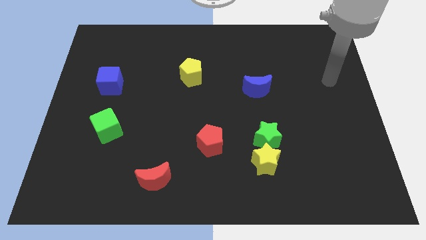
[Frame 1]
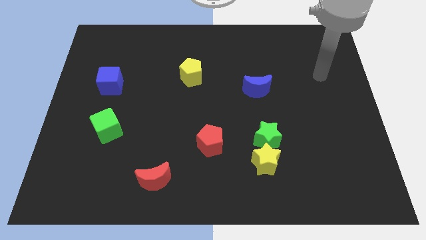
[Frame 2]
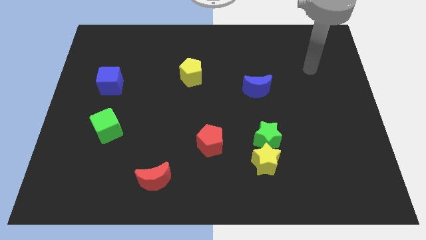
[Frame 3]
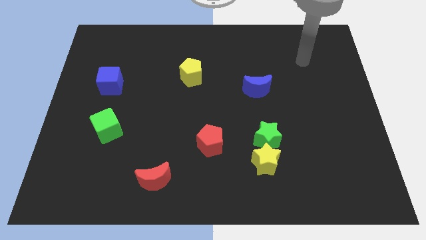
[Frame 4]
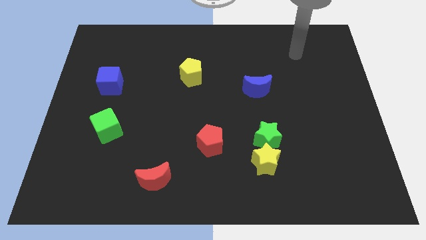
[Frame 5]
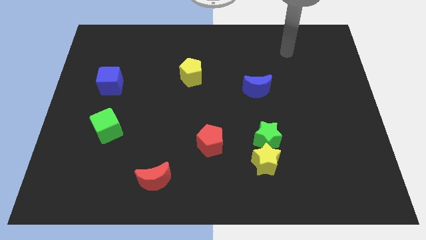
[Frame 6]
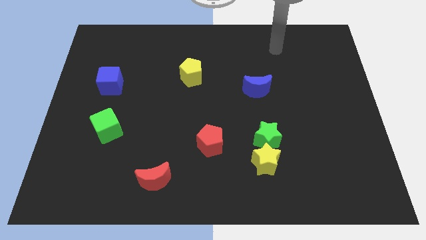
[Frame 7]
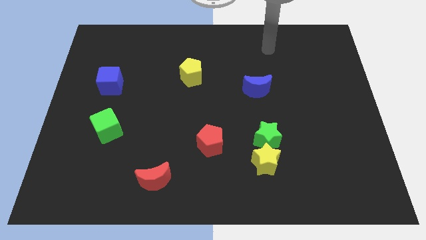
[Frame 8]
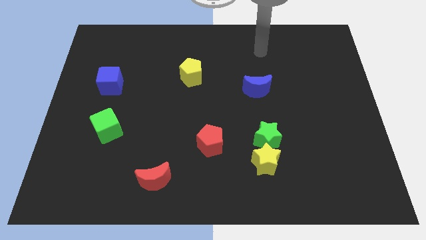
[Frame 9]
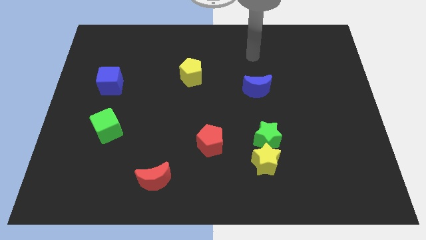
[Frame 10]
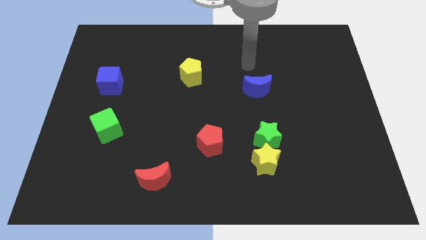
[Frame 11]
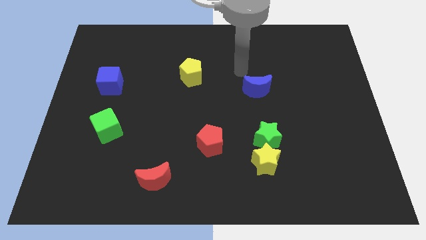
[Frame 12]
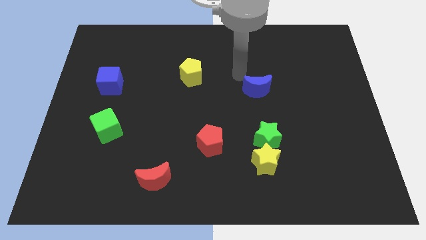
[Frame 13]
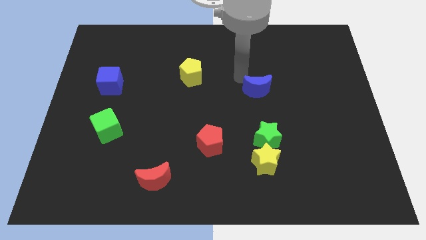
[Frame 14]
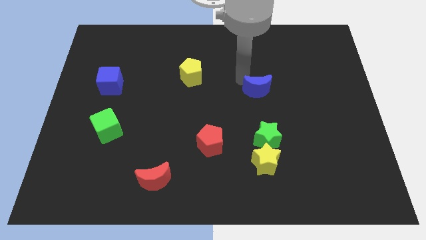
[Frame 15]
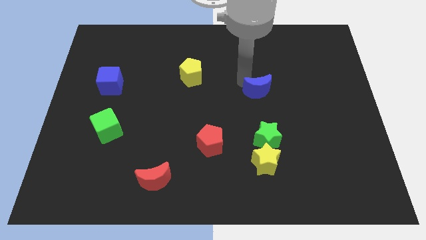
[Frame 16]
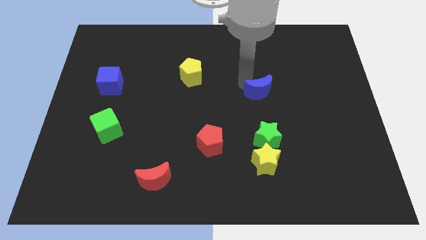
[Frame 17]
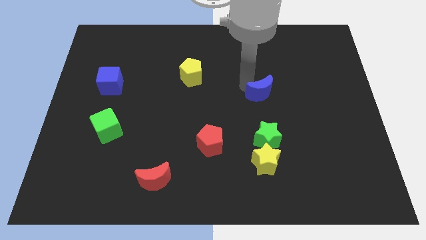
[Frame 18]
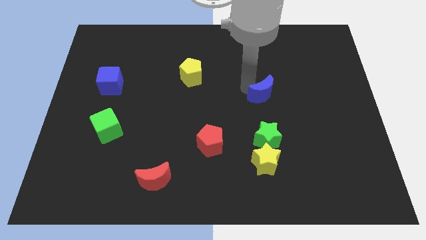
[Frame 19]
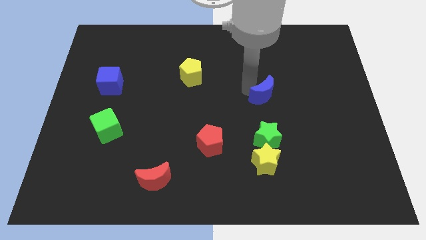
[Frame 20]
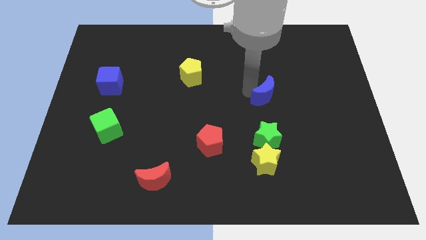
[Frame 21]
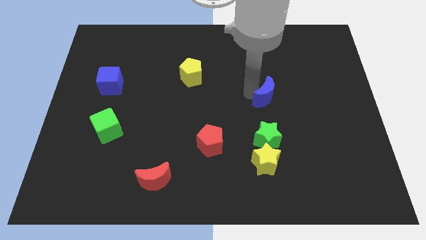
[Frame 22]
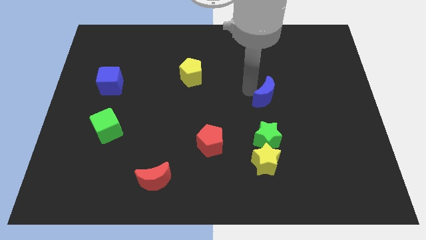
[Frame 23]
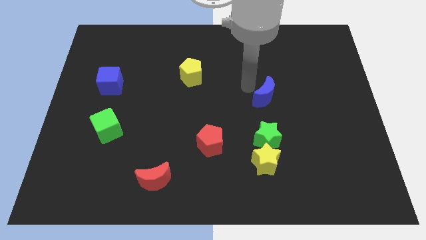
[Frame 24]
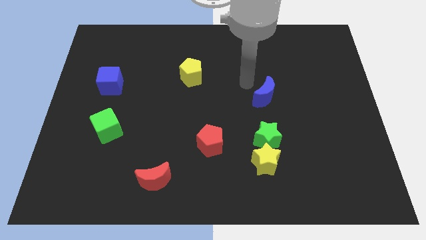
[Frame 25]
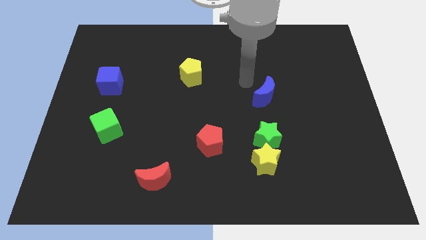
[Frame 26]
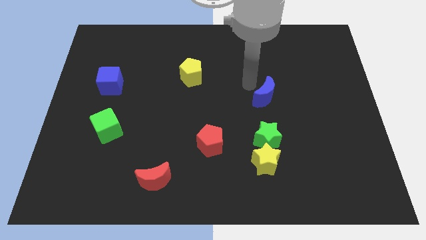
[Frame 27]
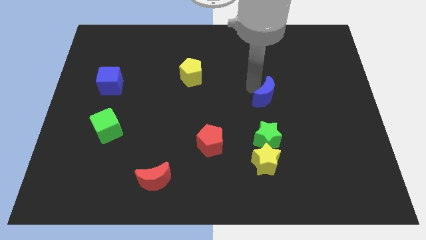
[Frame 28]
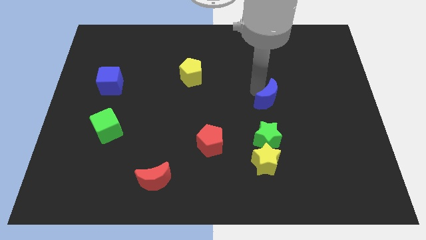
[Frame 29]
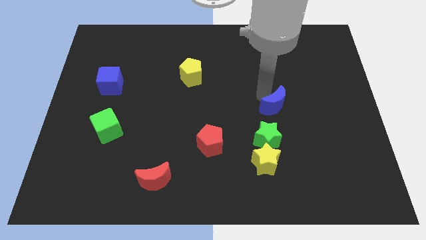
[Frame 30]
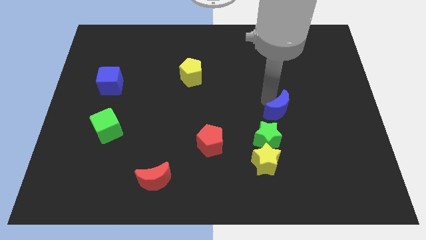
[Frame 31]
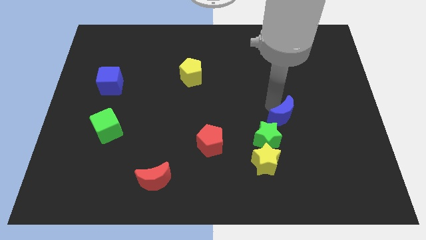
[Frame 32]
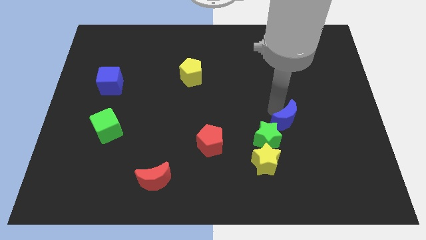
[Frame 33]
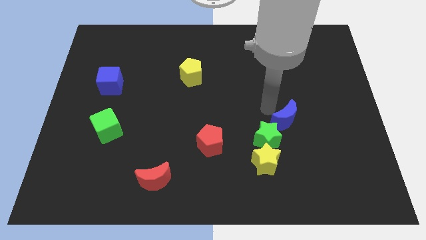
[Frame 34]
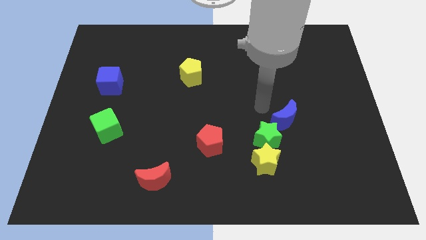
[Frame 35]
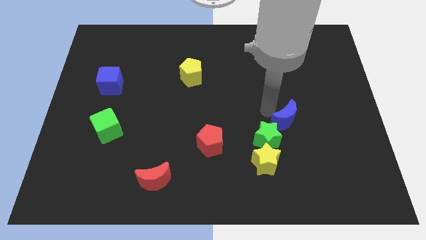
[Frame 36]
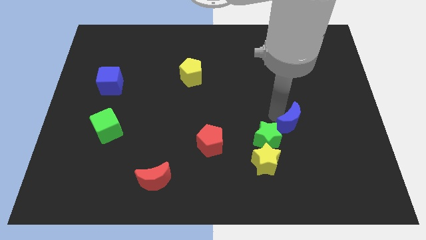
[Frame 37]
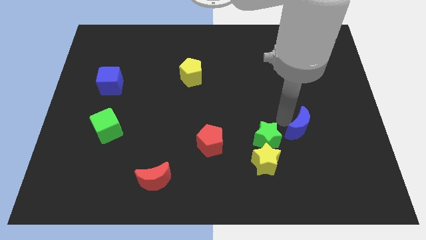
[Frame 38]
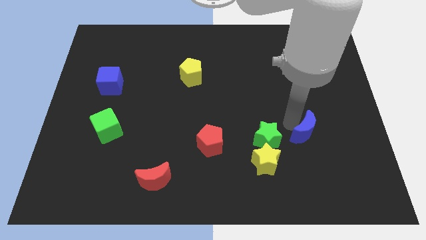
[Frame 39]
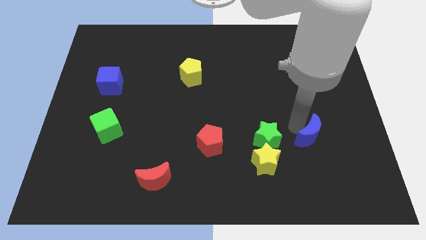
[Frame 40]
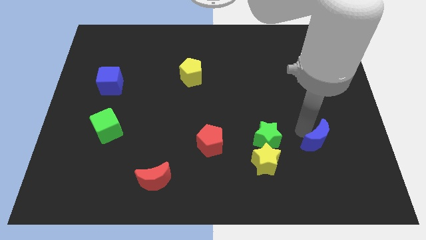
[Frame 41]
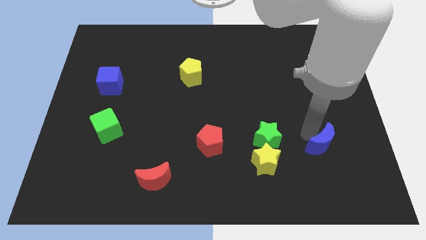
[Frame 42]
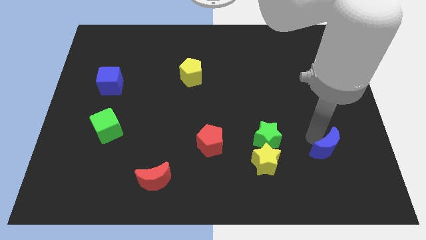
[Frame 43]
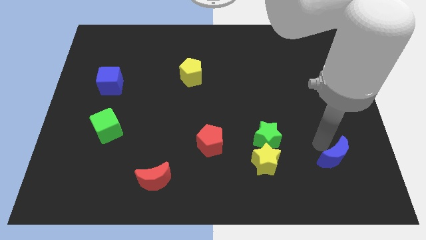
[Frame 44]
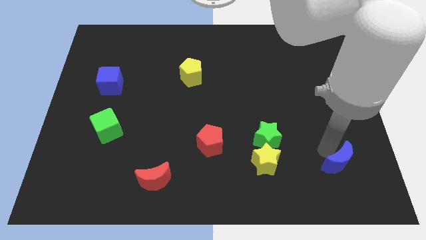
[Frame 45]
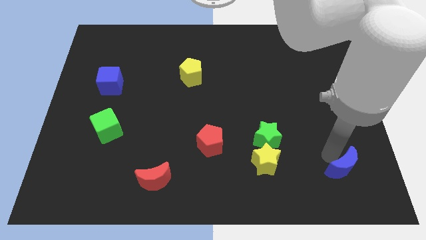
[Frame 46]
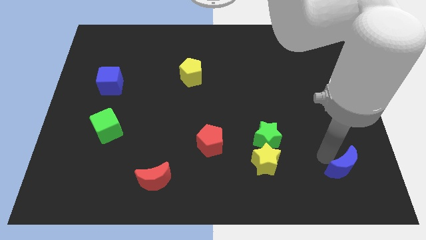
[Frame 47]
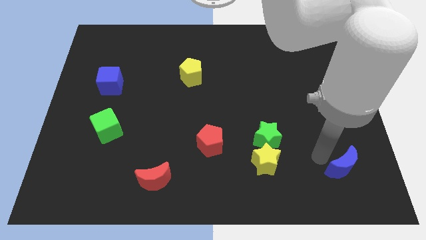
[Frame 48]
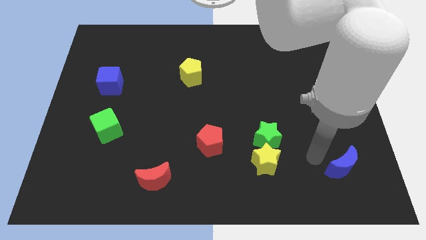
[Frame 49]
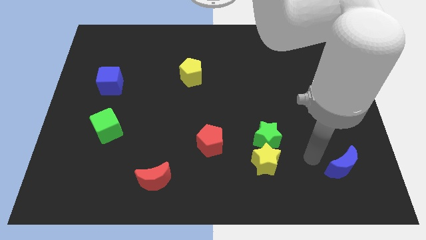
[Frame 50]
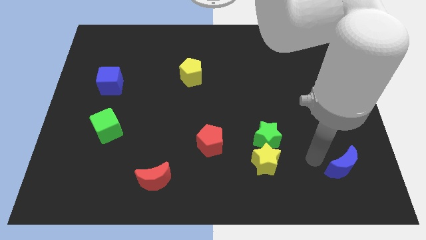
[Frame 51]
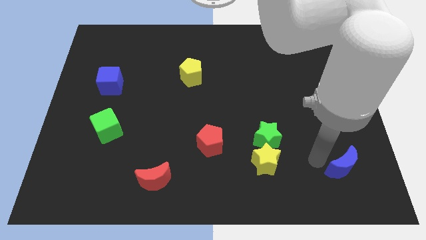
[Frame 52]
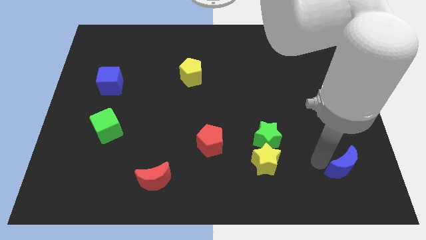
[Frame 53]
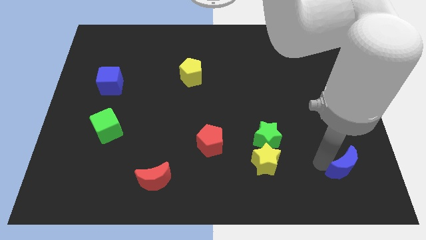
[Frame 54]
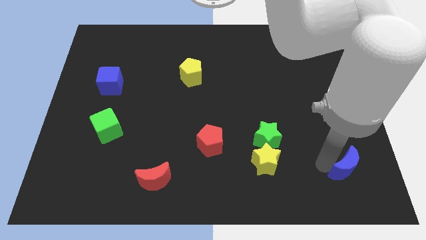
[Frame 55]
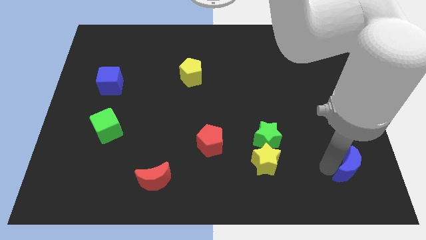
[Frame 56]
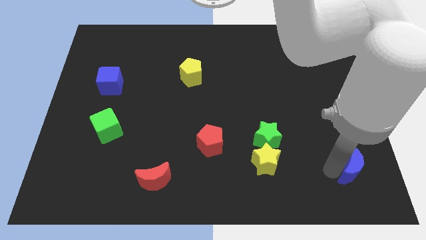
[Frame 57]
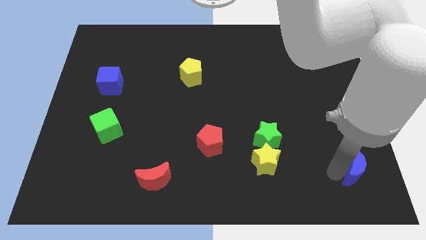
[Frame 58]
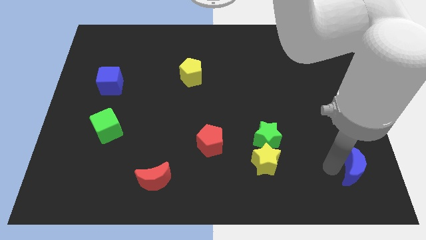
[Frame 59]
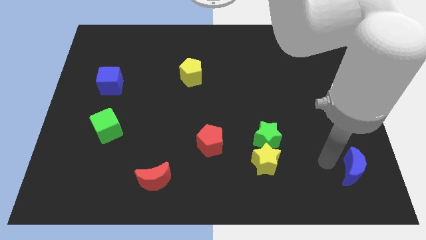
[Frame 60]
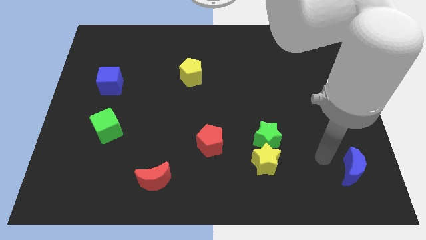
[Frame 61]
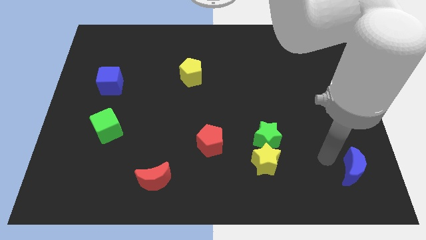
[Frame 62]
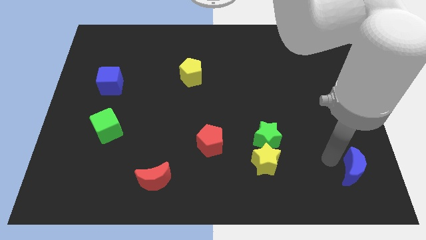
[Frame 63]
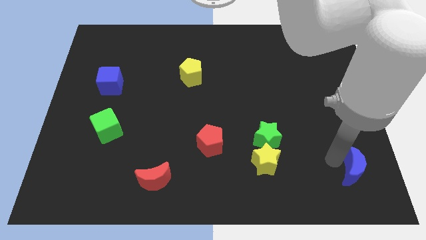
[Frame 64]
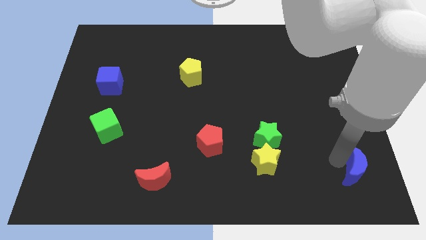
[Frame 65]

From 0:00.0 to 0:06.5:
slide the blue moon to the lower right corner
